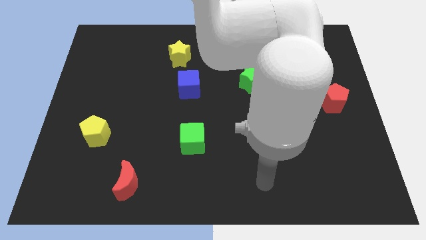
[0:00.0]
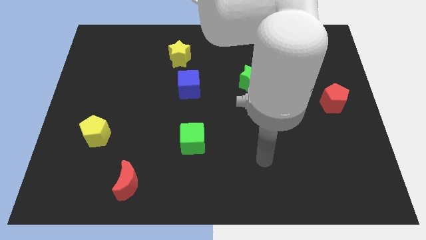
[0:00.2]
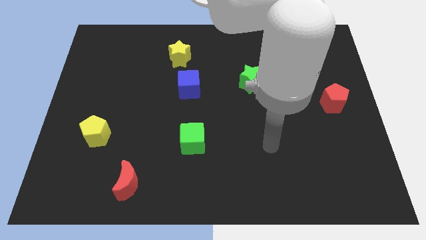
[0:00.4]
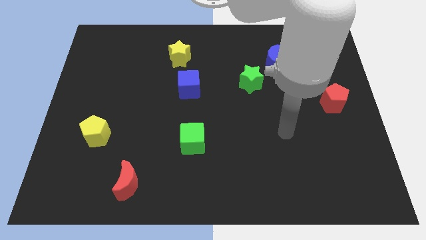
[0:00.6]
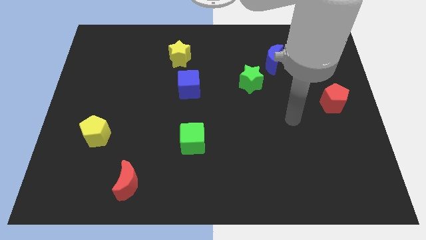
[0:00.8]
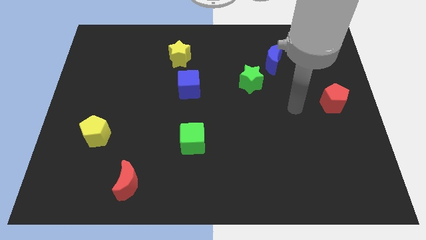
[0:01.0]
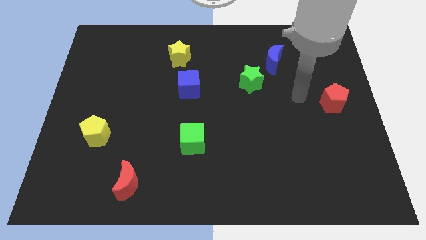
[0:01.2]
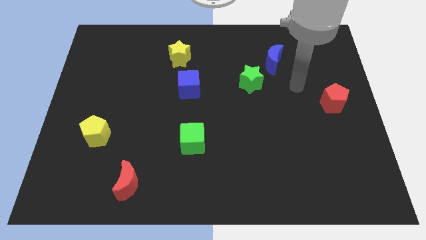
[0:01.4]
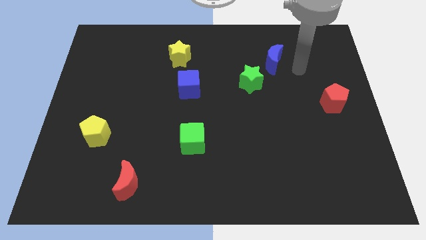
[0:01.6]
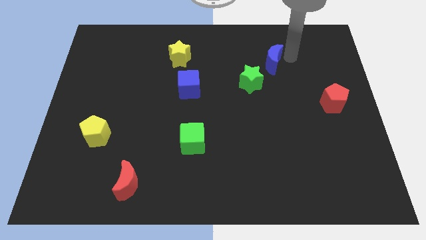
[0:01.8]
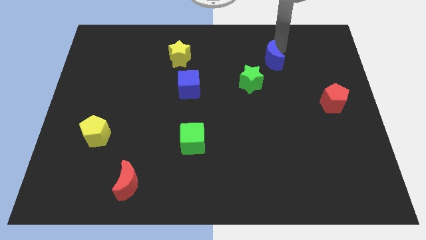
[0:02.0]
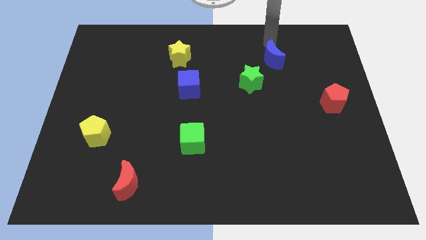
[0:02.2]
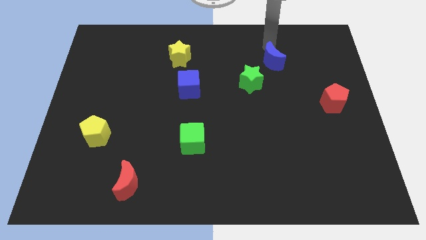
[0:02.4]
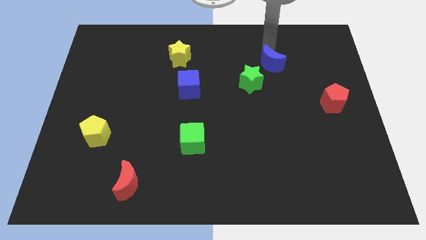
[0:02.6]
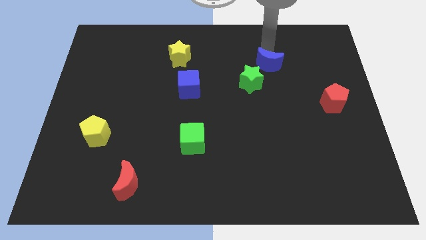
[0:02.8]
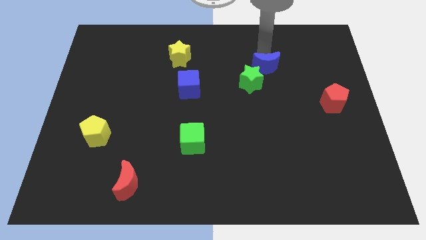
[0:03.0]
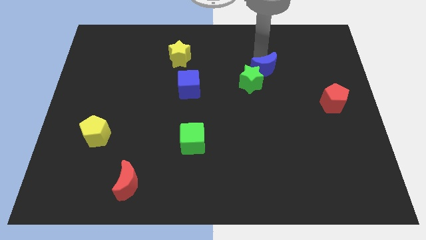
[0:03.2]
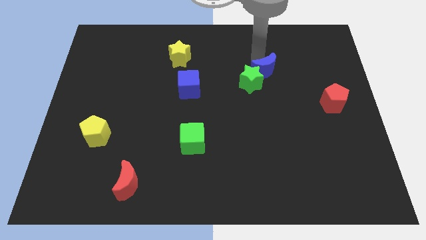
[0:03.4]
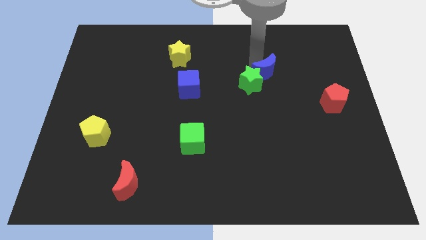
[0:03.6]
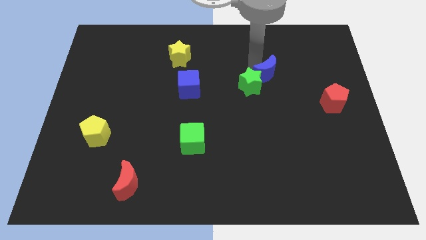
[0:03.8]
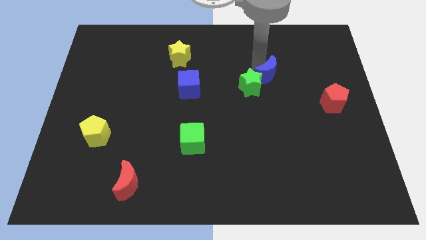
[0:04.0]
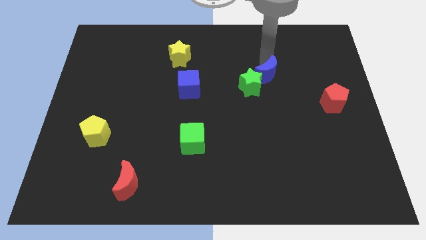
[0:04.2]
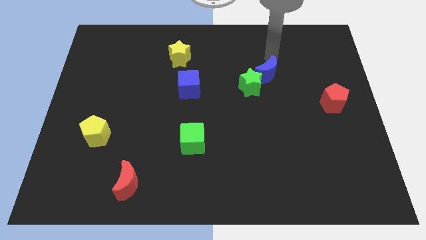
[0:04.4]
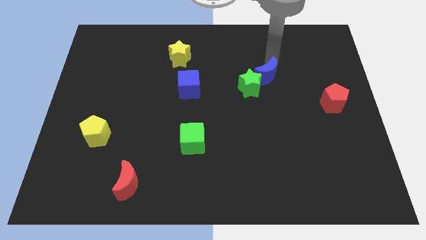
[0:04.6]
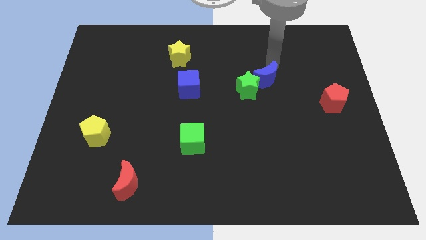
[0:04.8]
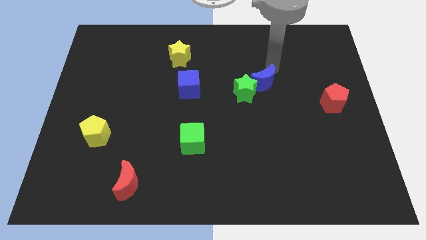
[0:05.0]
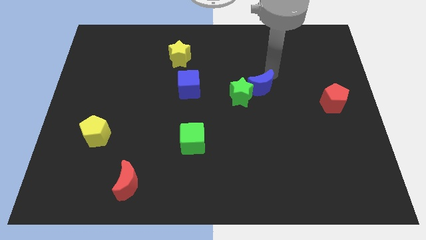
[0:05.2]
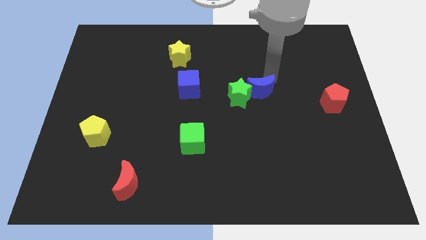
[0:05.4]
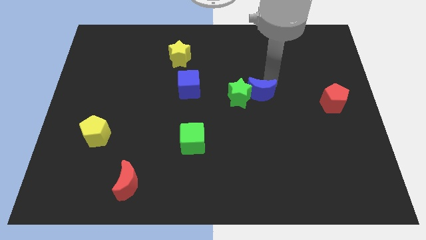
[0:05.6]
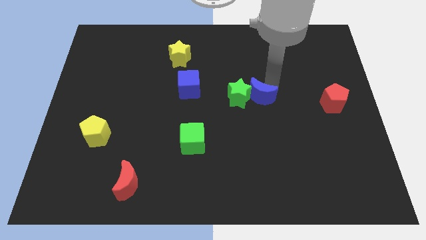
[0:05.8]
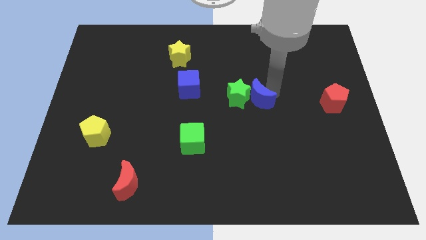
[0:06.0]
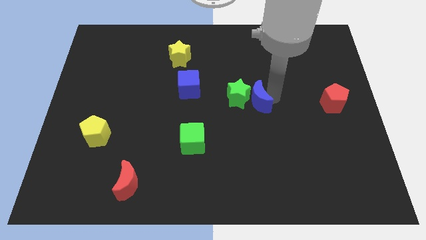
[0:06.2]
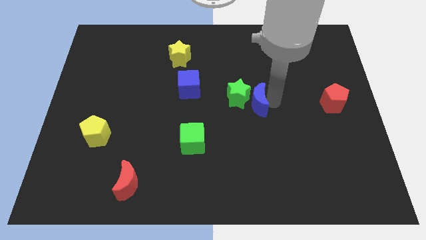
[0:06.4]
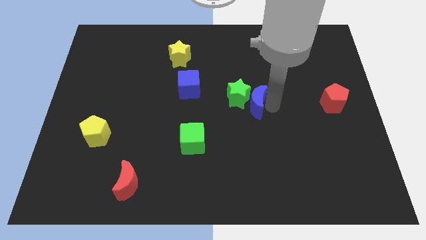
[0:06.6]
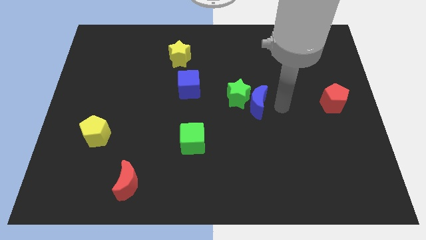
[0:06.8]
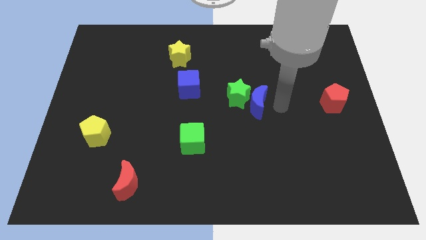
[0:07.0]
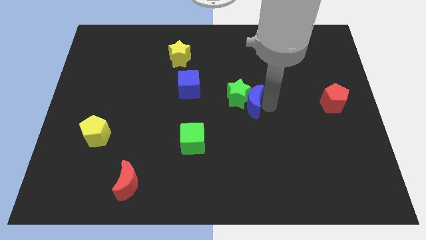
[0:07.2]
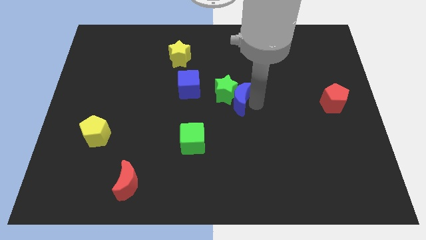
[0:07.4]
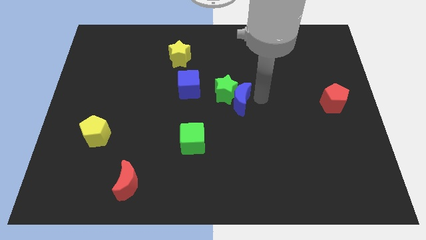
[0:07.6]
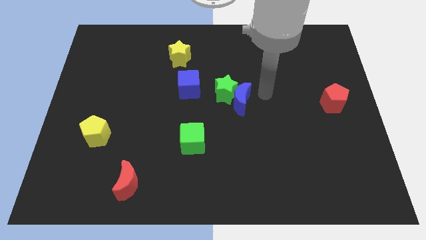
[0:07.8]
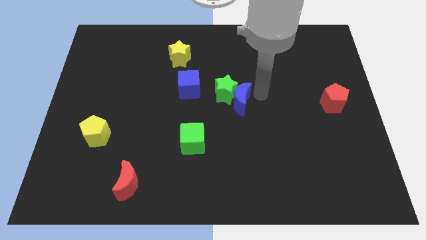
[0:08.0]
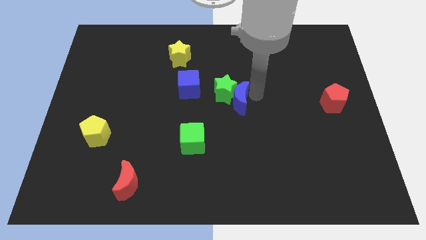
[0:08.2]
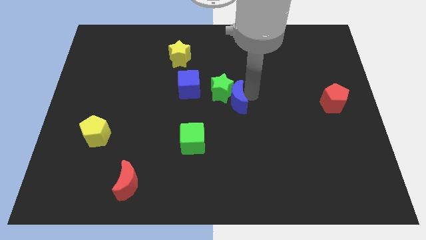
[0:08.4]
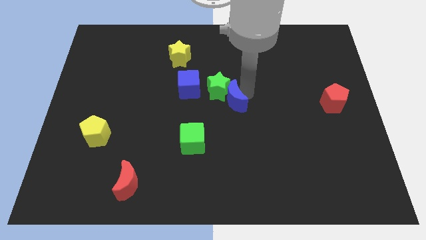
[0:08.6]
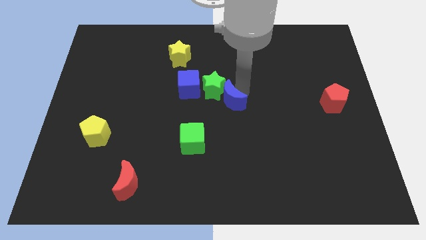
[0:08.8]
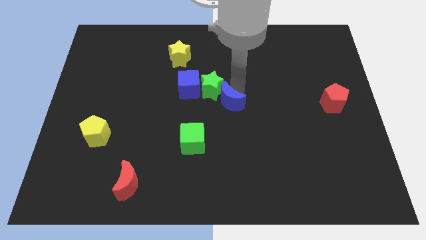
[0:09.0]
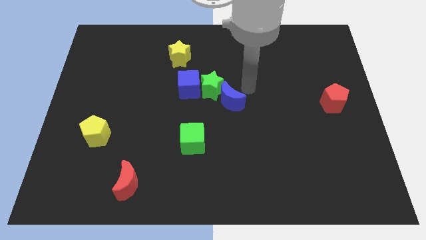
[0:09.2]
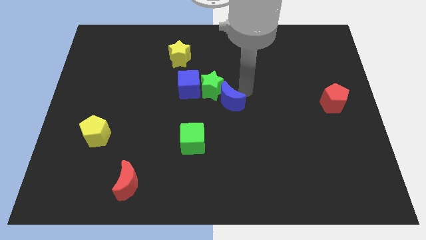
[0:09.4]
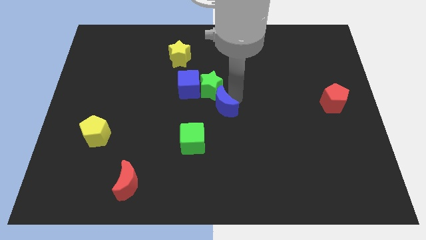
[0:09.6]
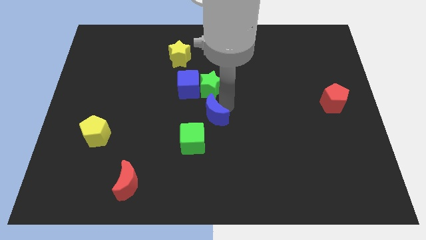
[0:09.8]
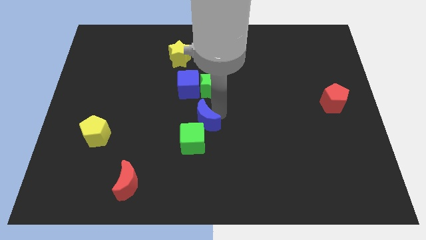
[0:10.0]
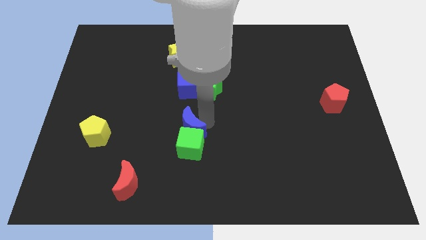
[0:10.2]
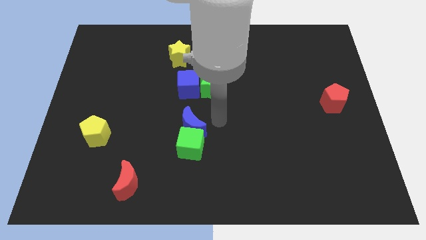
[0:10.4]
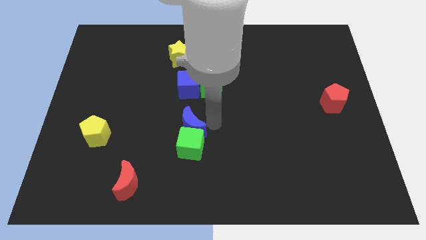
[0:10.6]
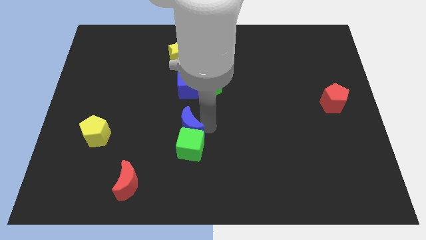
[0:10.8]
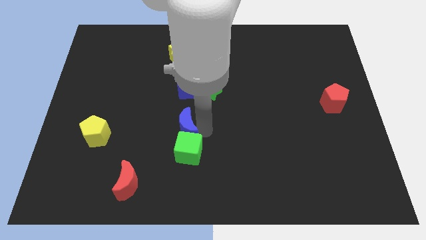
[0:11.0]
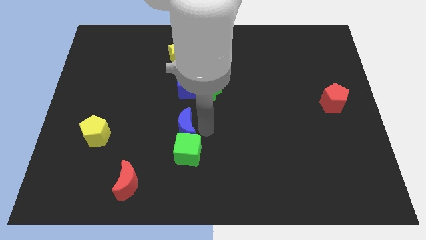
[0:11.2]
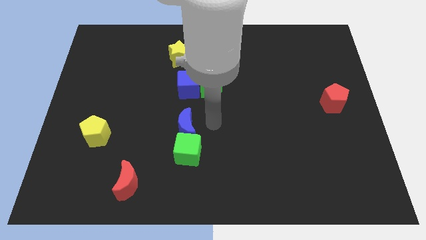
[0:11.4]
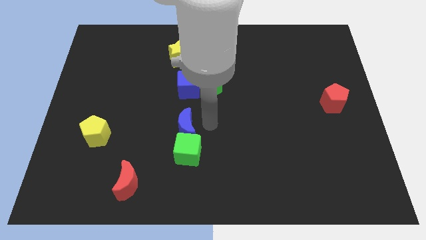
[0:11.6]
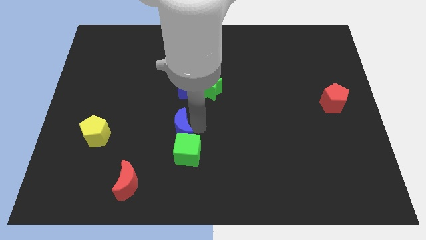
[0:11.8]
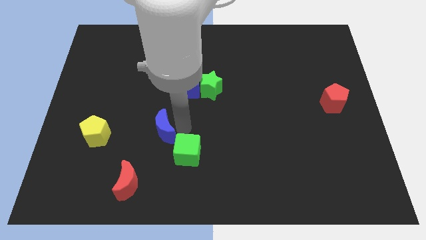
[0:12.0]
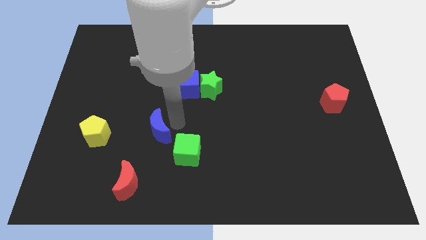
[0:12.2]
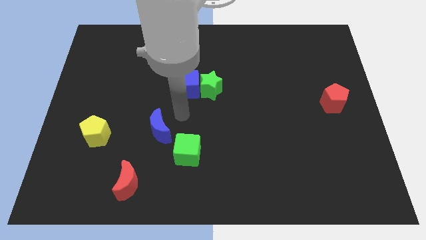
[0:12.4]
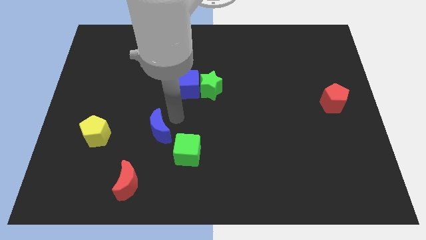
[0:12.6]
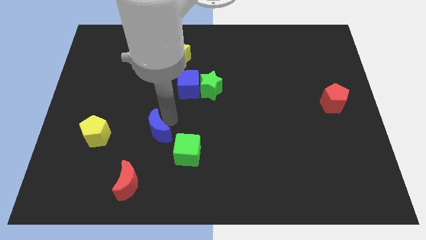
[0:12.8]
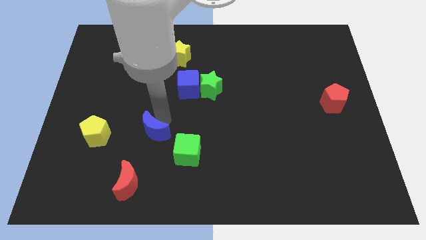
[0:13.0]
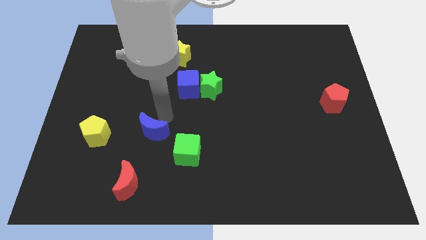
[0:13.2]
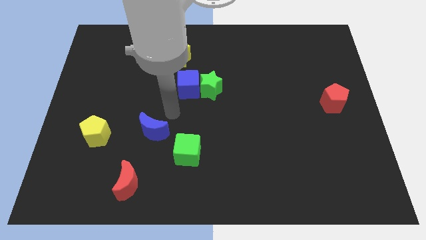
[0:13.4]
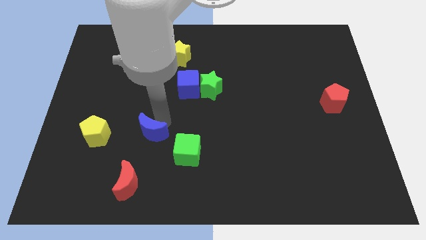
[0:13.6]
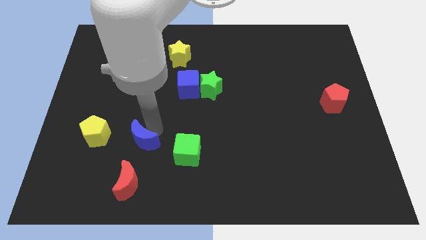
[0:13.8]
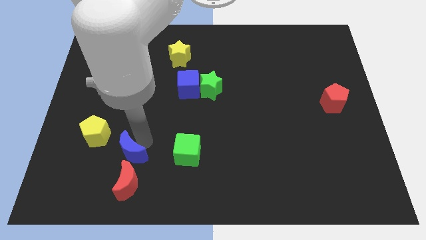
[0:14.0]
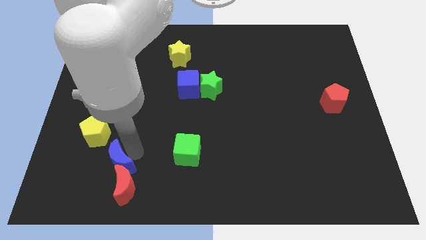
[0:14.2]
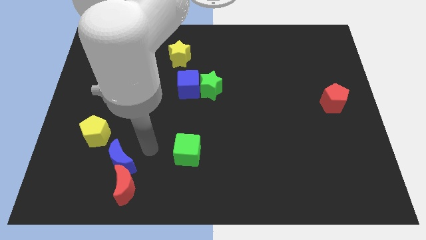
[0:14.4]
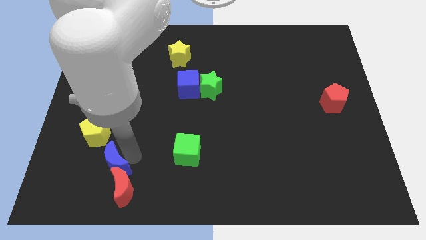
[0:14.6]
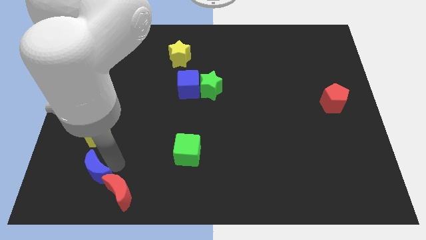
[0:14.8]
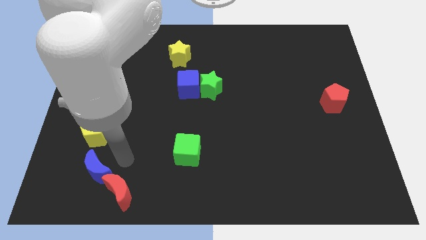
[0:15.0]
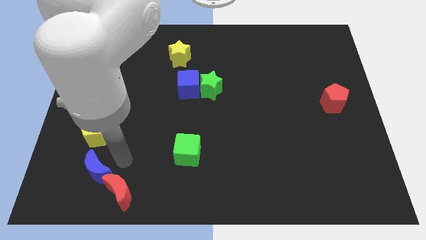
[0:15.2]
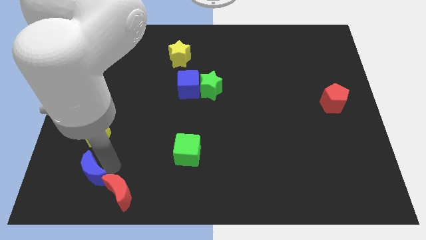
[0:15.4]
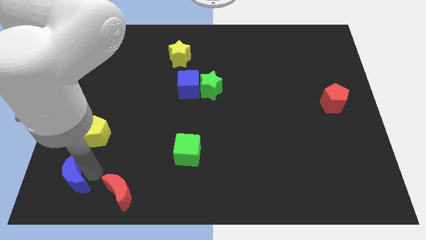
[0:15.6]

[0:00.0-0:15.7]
push the blue moon to the bottom left corner
